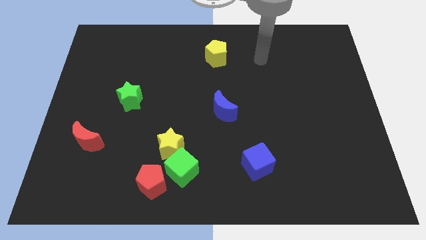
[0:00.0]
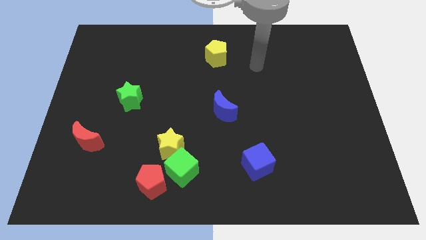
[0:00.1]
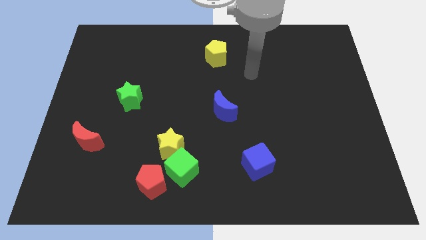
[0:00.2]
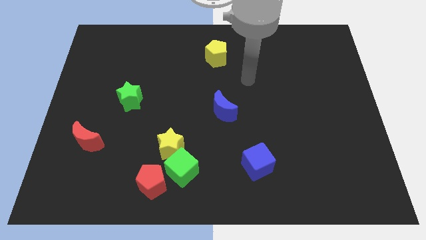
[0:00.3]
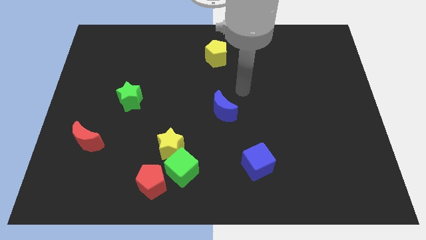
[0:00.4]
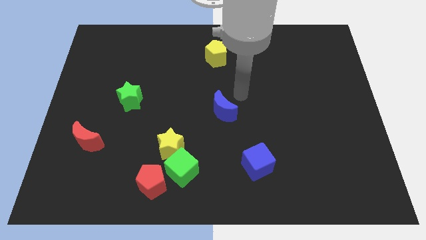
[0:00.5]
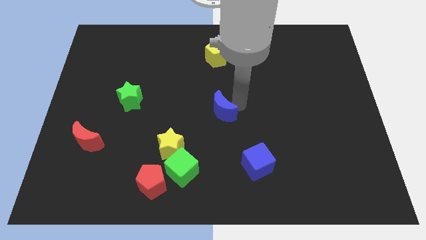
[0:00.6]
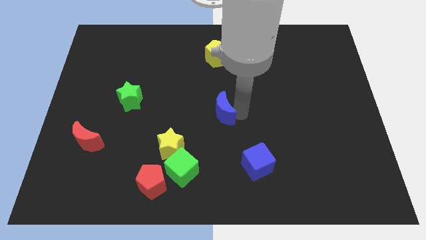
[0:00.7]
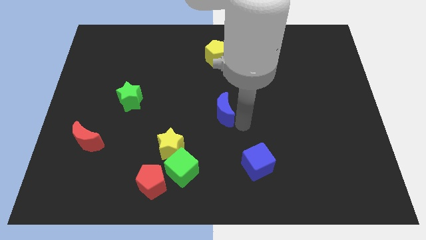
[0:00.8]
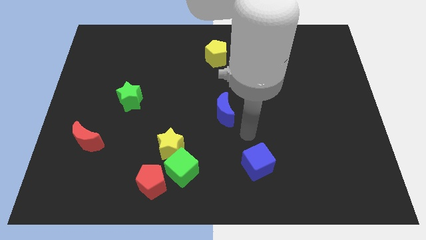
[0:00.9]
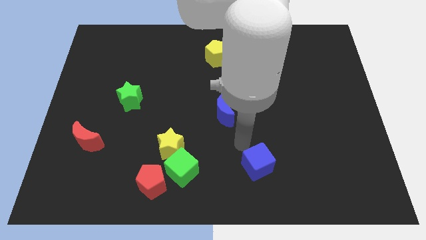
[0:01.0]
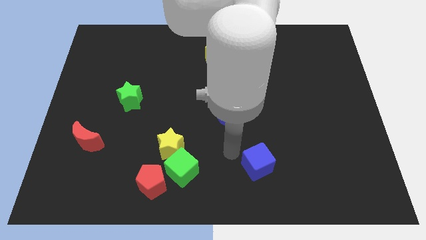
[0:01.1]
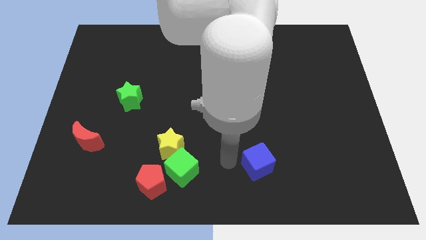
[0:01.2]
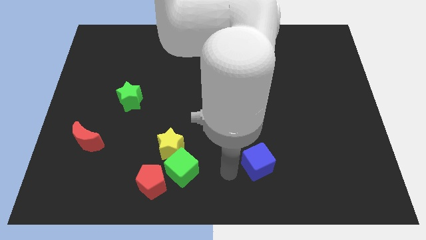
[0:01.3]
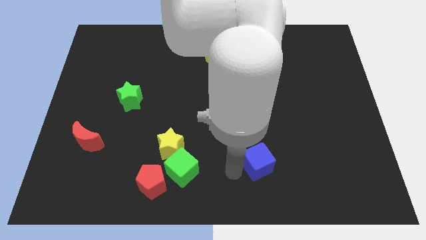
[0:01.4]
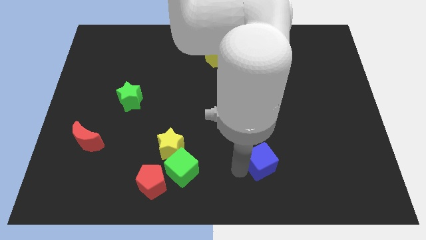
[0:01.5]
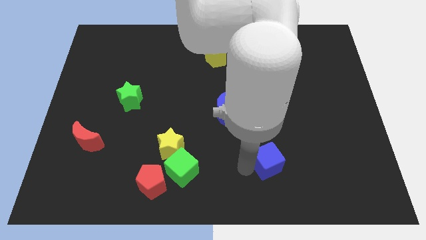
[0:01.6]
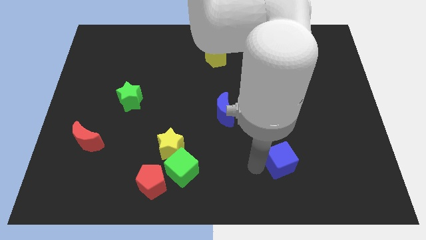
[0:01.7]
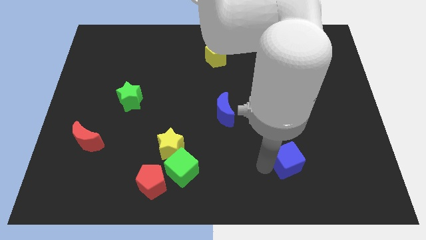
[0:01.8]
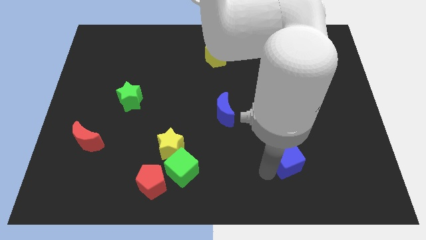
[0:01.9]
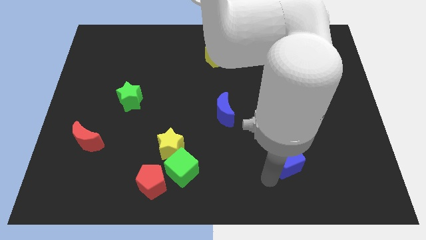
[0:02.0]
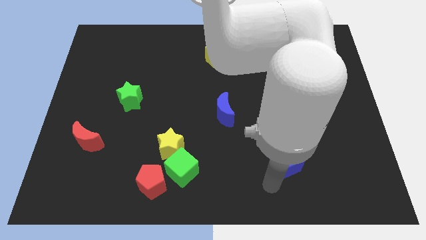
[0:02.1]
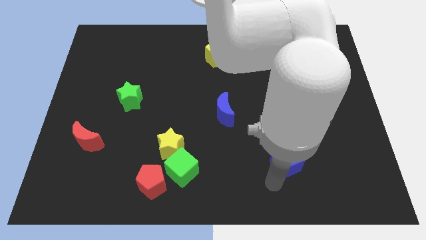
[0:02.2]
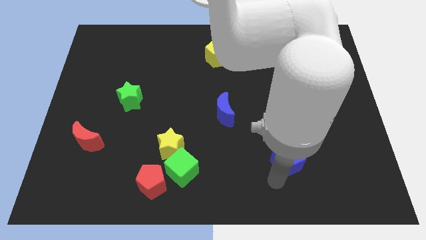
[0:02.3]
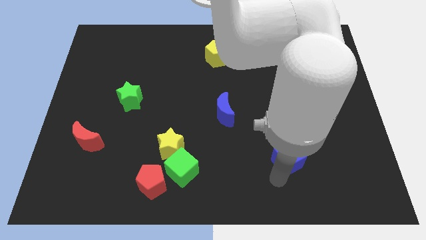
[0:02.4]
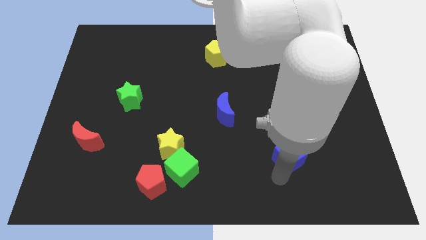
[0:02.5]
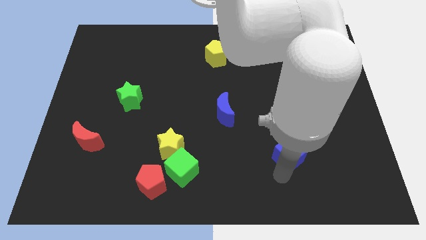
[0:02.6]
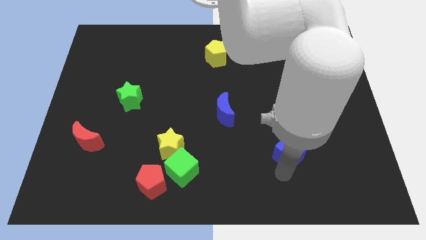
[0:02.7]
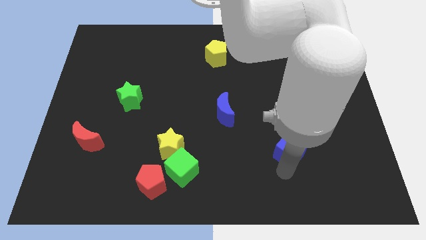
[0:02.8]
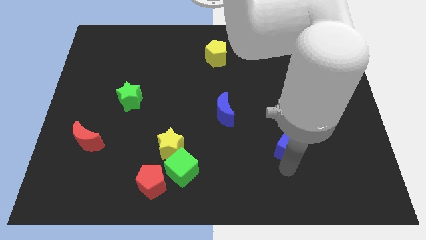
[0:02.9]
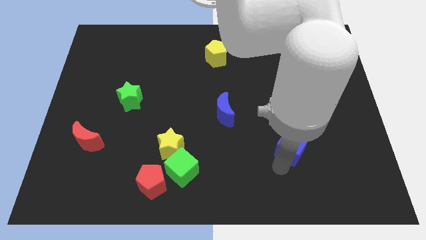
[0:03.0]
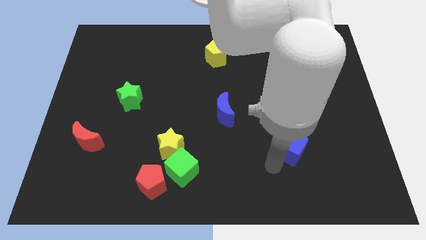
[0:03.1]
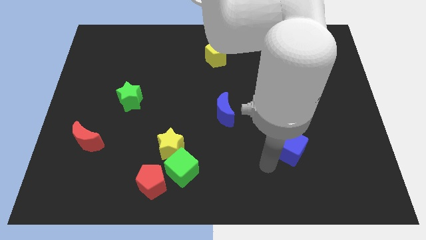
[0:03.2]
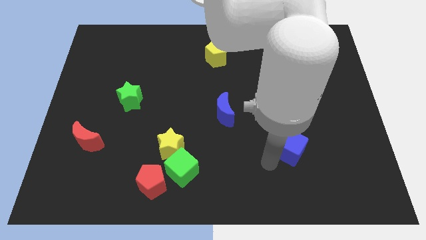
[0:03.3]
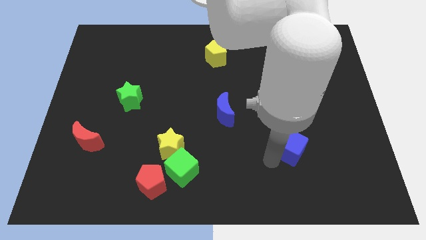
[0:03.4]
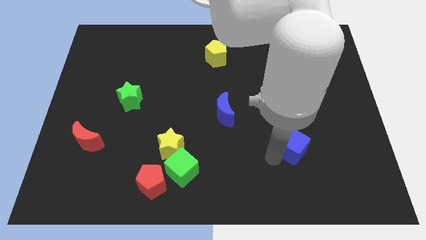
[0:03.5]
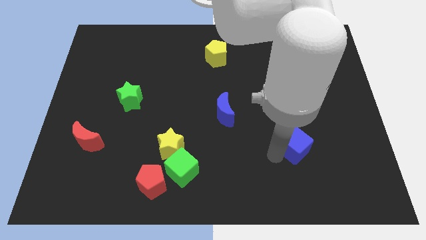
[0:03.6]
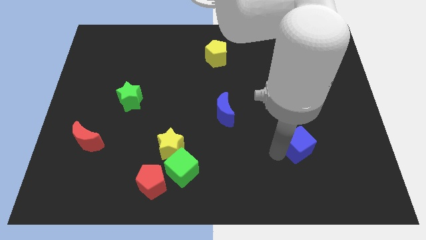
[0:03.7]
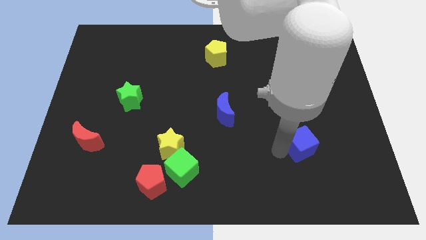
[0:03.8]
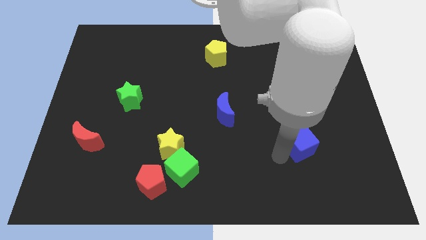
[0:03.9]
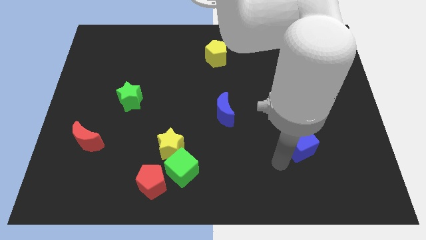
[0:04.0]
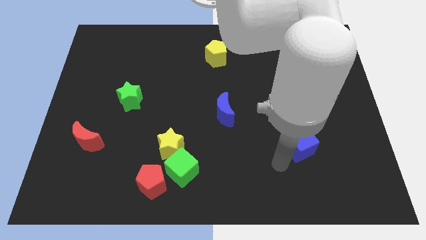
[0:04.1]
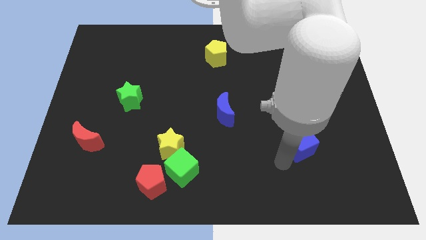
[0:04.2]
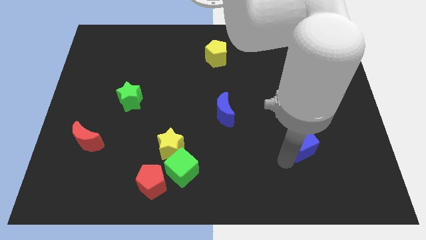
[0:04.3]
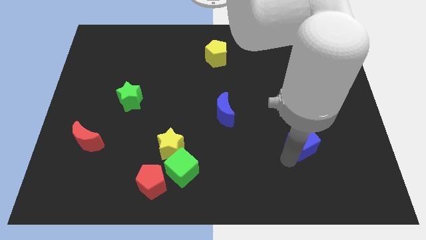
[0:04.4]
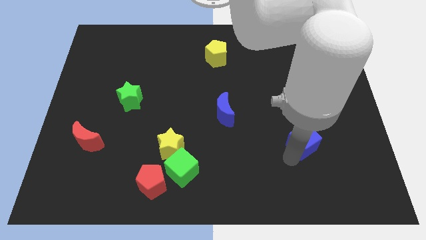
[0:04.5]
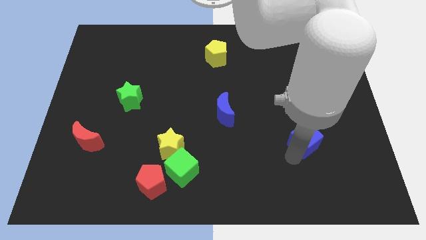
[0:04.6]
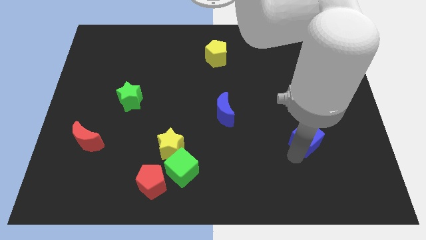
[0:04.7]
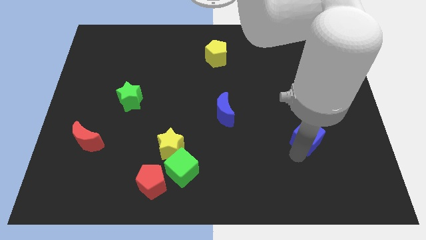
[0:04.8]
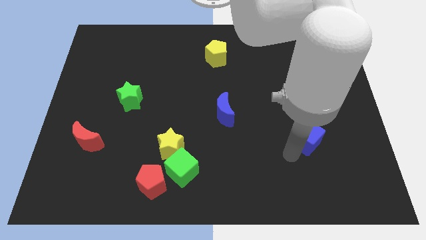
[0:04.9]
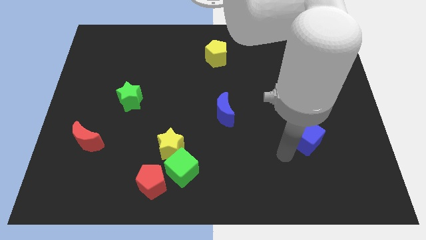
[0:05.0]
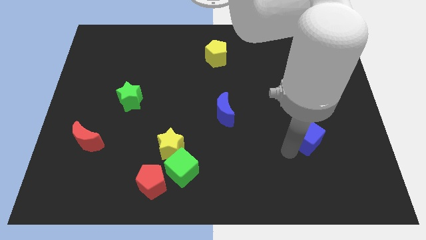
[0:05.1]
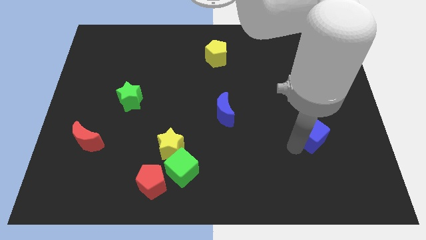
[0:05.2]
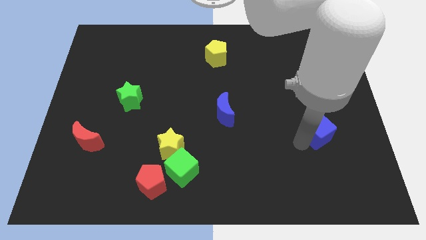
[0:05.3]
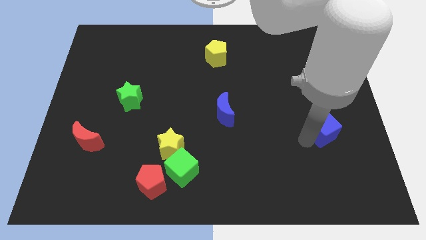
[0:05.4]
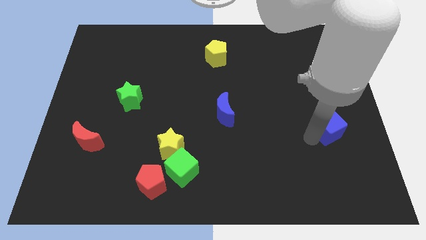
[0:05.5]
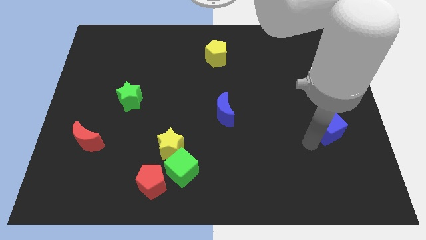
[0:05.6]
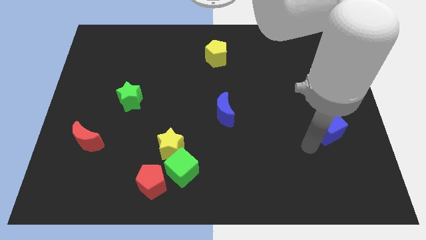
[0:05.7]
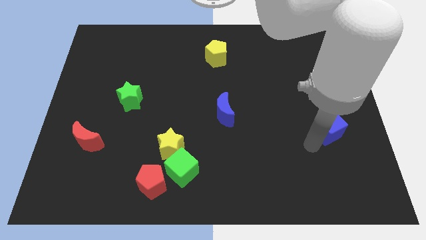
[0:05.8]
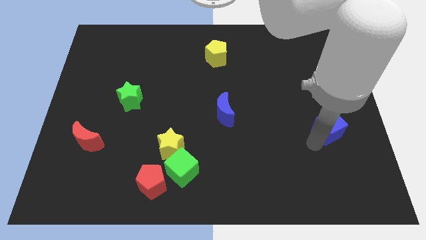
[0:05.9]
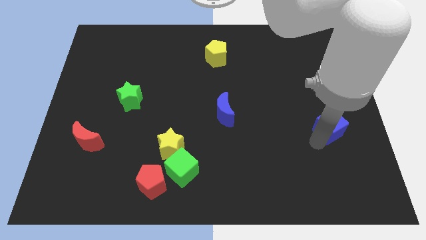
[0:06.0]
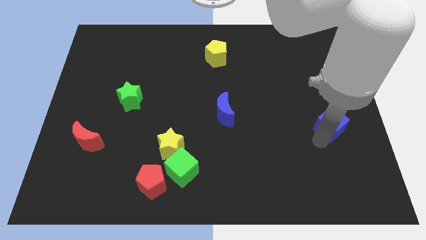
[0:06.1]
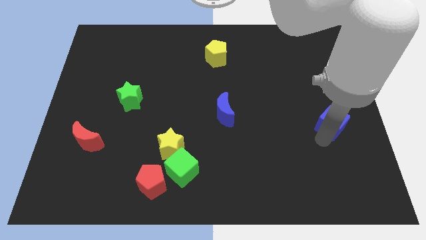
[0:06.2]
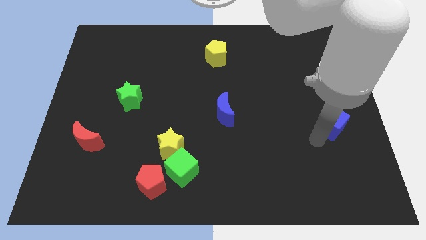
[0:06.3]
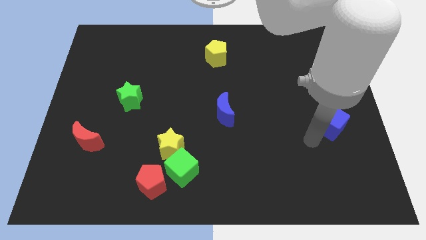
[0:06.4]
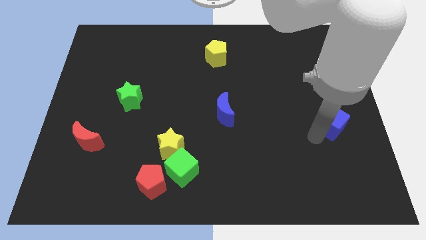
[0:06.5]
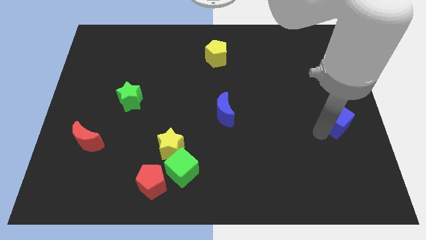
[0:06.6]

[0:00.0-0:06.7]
push the blue cube to the right side of the board

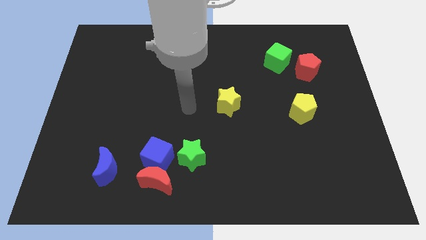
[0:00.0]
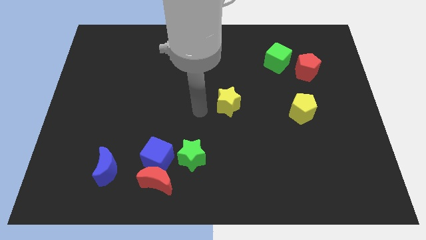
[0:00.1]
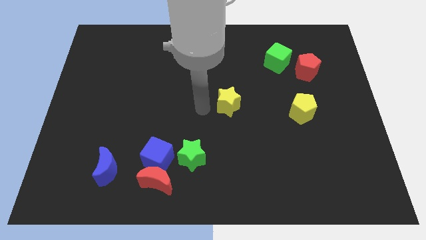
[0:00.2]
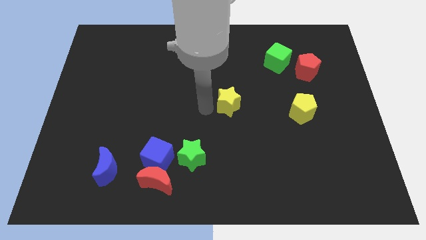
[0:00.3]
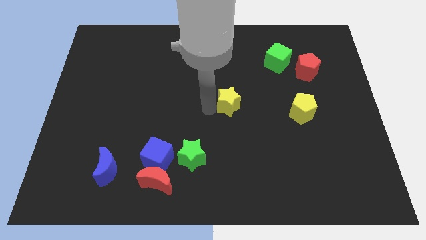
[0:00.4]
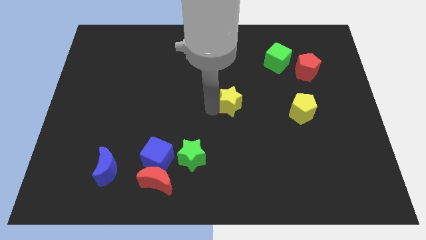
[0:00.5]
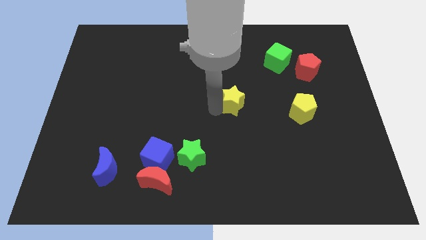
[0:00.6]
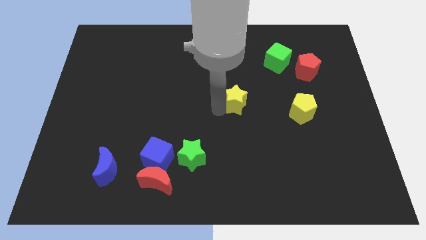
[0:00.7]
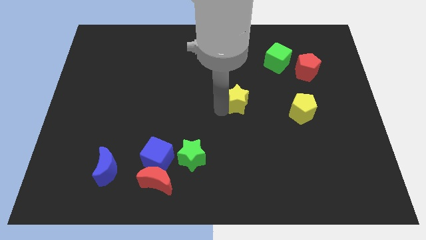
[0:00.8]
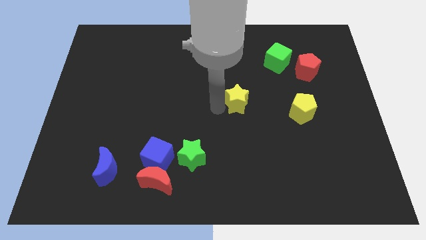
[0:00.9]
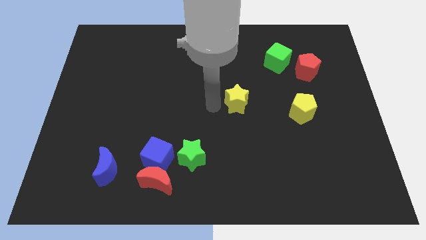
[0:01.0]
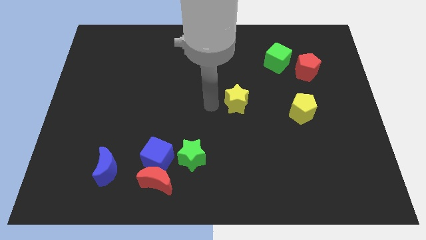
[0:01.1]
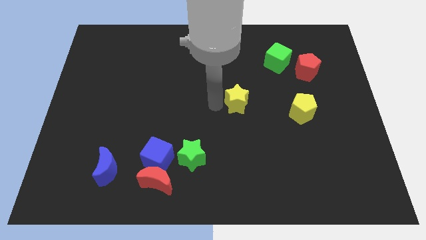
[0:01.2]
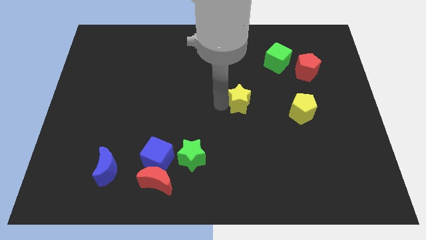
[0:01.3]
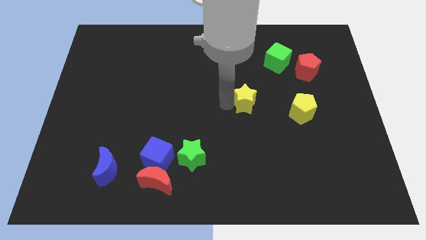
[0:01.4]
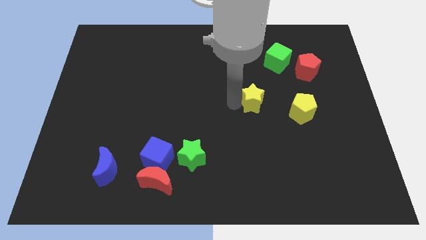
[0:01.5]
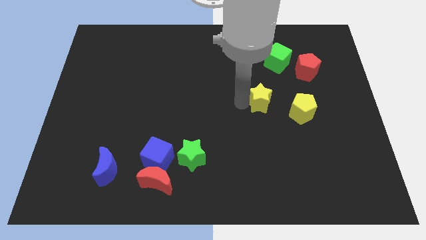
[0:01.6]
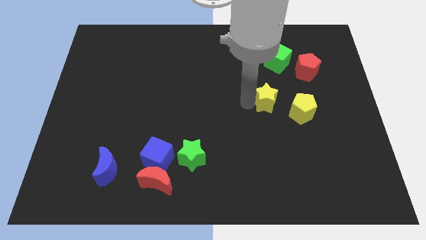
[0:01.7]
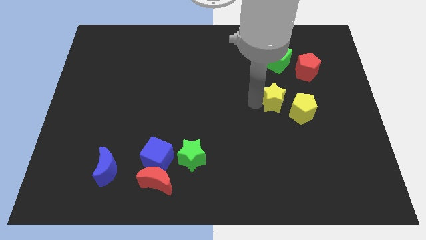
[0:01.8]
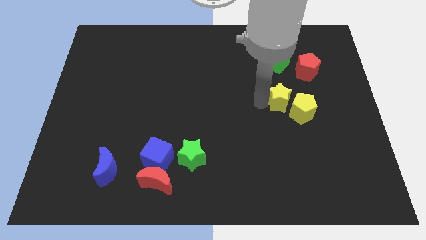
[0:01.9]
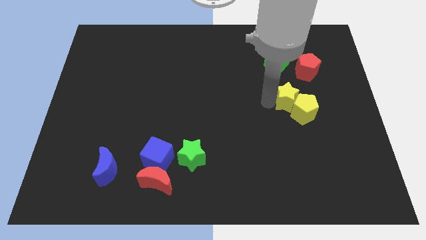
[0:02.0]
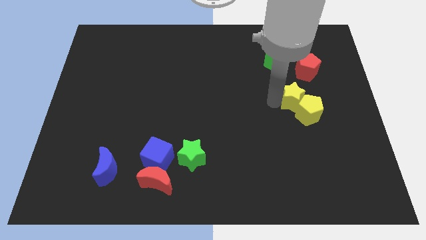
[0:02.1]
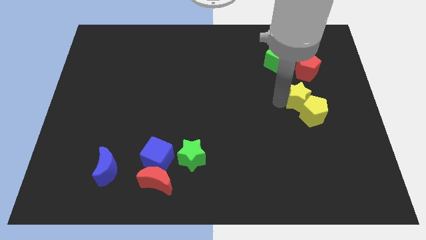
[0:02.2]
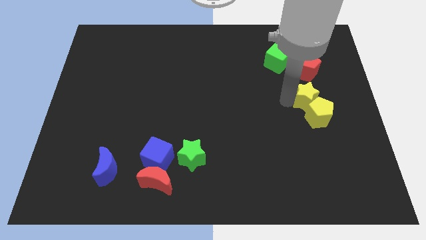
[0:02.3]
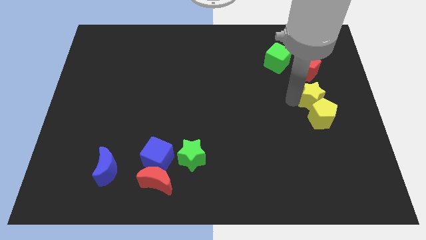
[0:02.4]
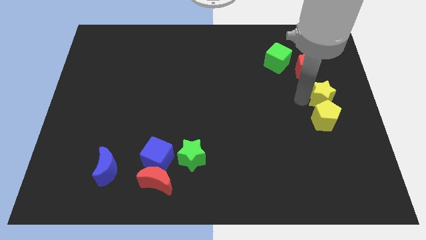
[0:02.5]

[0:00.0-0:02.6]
move the yellow star to the right side
